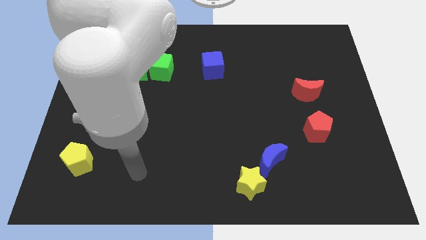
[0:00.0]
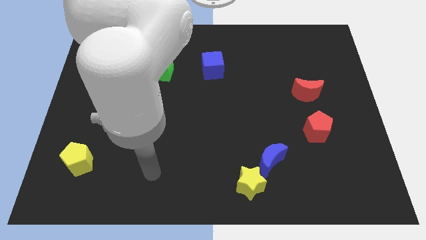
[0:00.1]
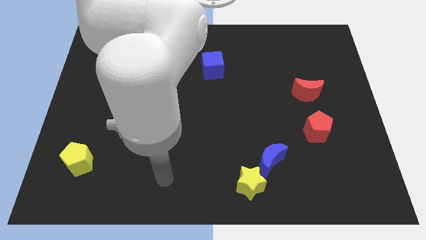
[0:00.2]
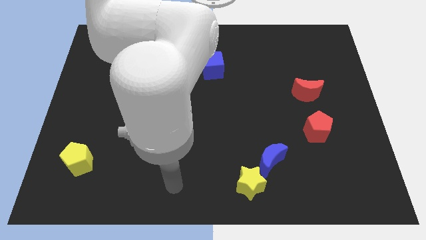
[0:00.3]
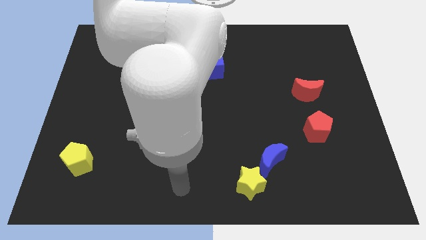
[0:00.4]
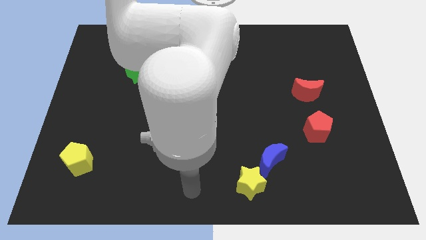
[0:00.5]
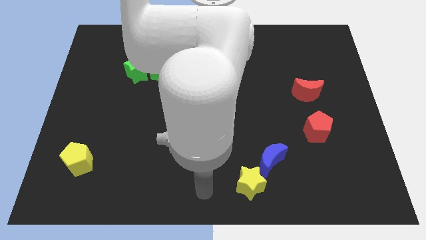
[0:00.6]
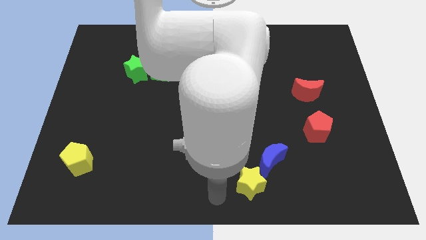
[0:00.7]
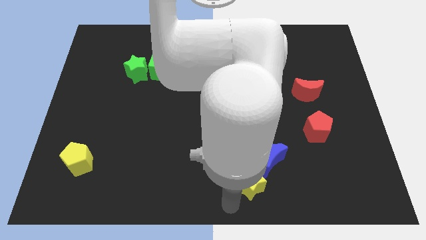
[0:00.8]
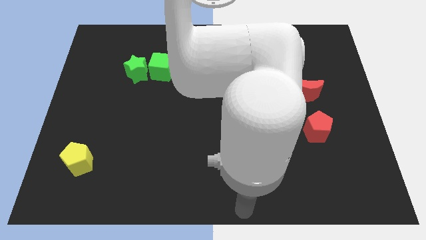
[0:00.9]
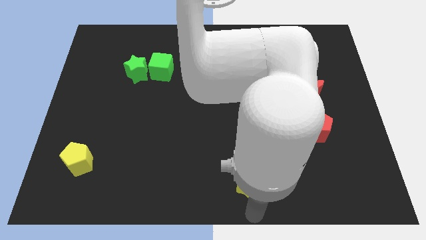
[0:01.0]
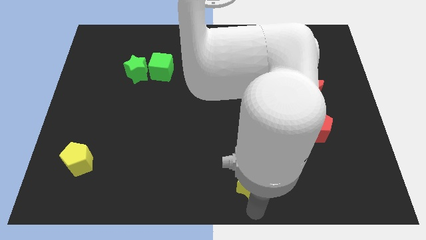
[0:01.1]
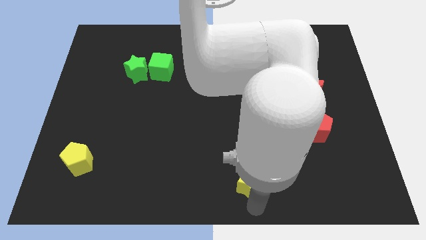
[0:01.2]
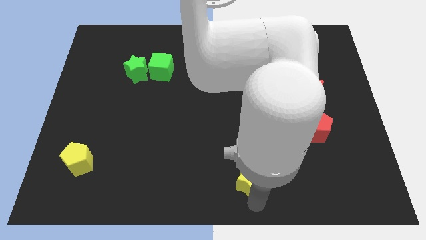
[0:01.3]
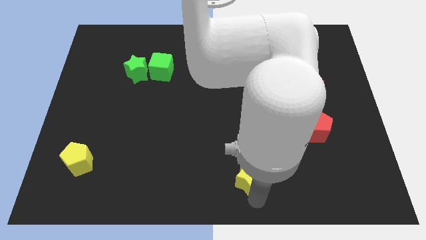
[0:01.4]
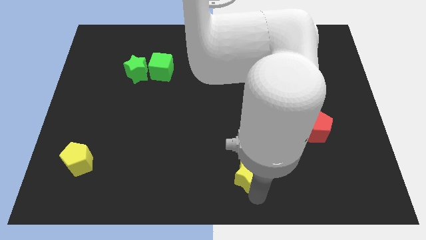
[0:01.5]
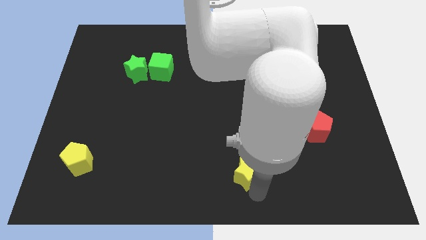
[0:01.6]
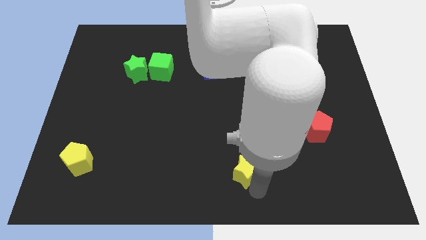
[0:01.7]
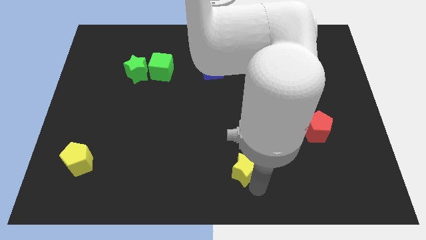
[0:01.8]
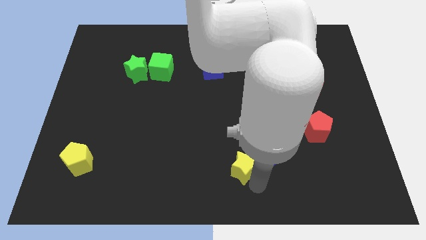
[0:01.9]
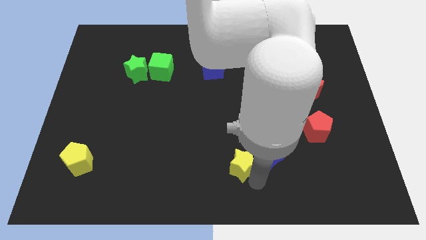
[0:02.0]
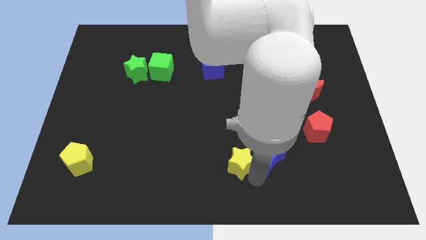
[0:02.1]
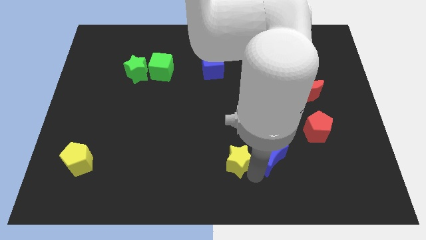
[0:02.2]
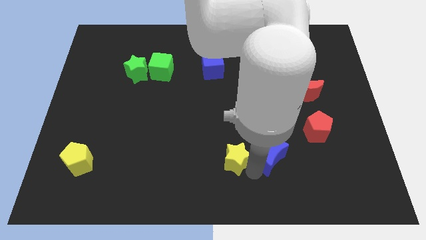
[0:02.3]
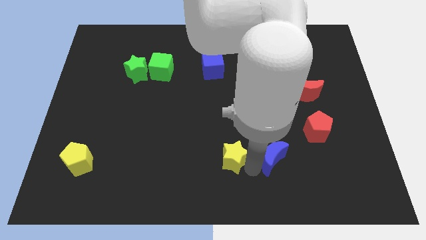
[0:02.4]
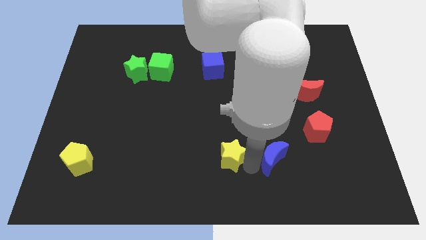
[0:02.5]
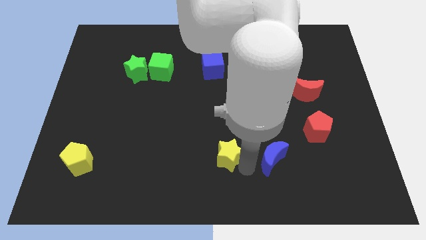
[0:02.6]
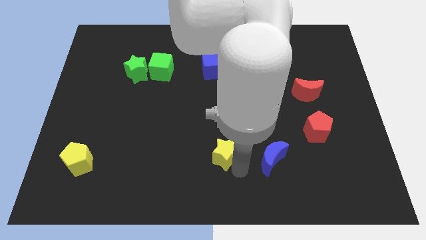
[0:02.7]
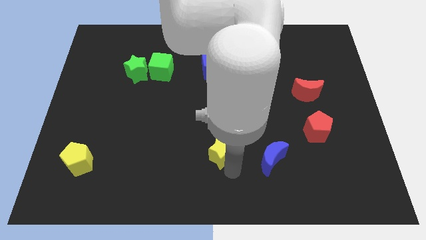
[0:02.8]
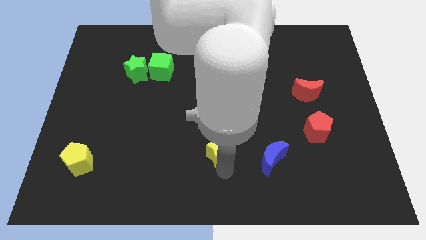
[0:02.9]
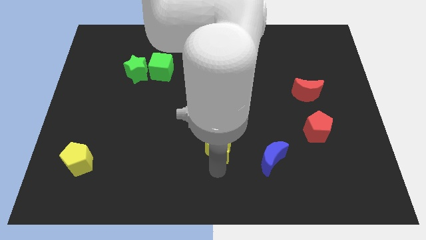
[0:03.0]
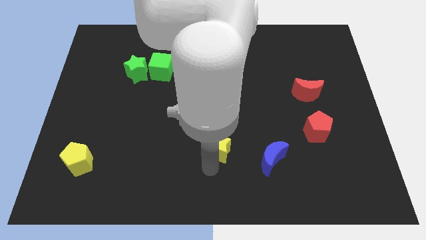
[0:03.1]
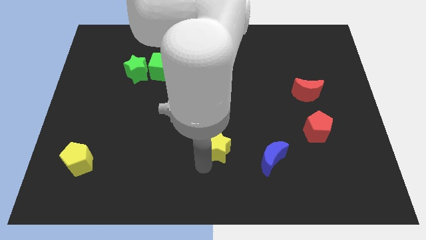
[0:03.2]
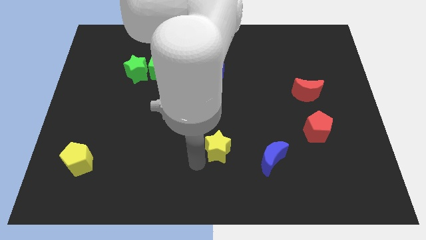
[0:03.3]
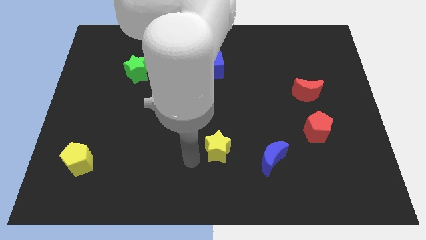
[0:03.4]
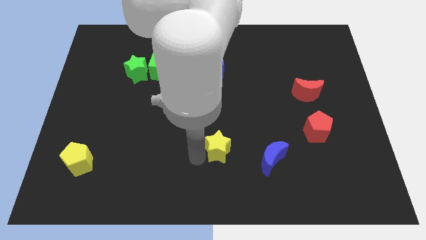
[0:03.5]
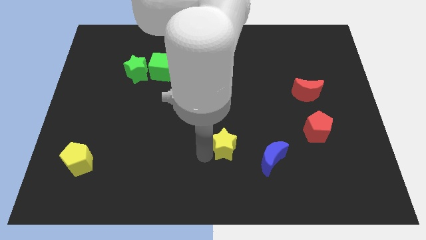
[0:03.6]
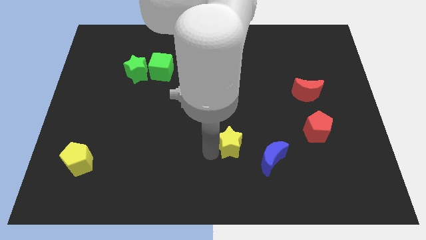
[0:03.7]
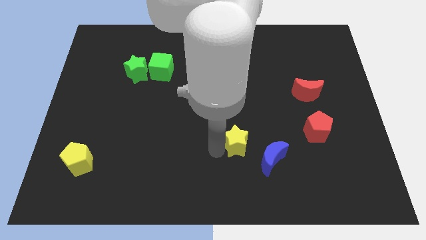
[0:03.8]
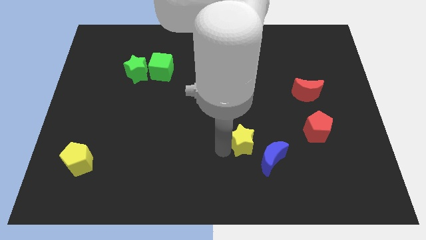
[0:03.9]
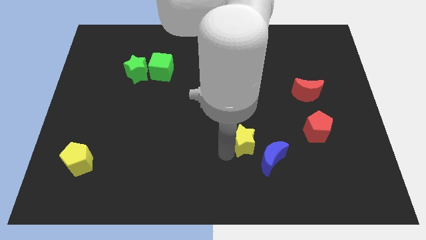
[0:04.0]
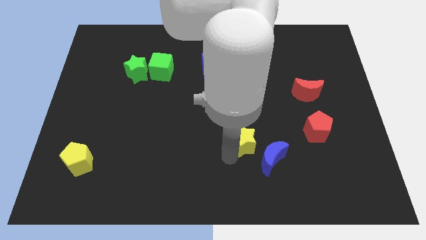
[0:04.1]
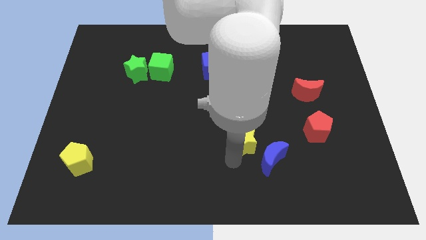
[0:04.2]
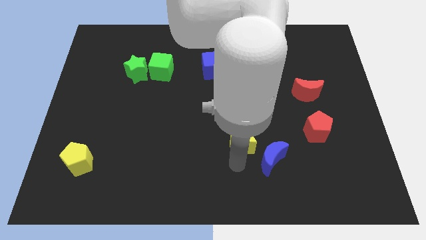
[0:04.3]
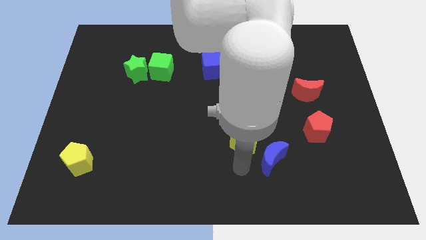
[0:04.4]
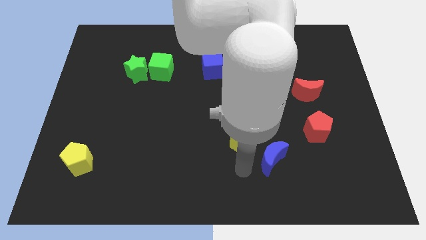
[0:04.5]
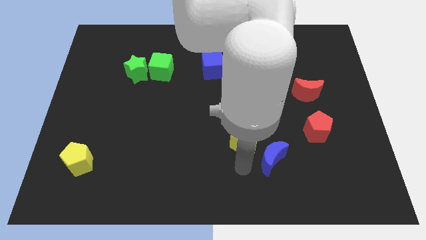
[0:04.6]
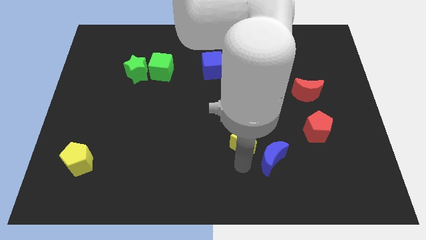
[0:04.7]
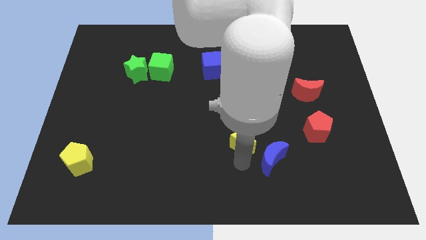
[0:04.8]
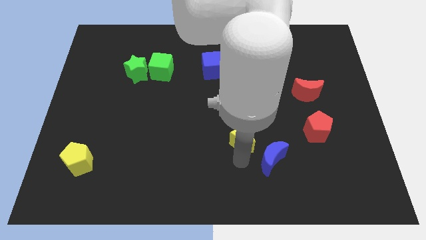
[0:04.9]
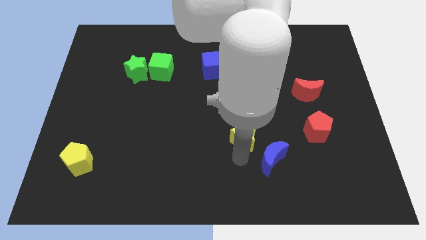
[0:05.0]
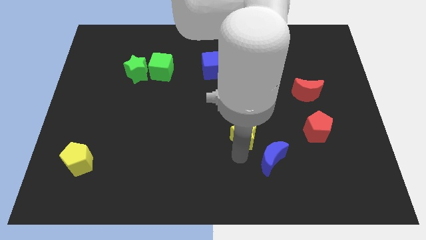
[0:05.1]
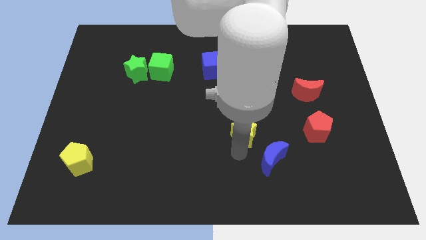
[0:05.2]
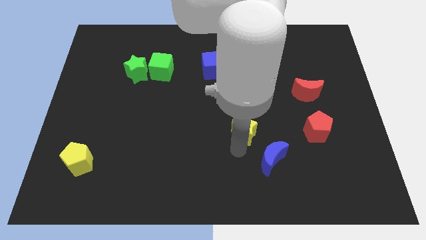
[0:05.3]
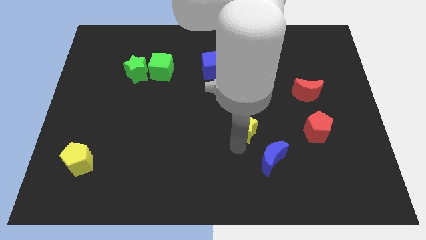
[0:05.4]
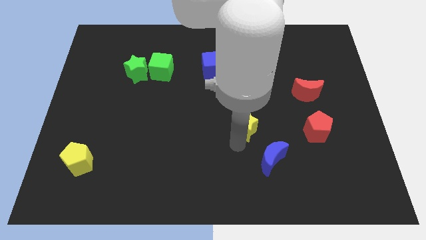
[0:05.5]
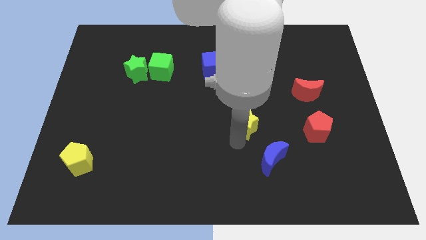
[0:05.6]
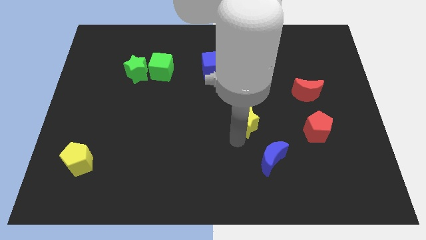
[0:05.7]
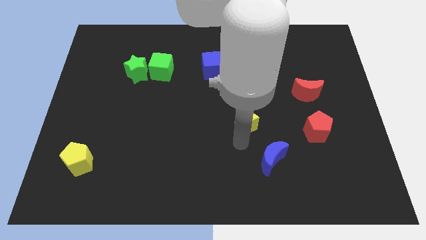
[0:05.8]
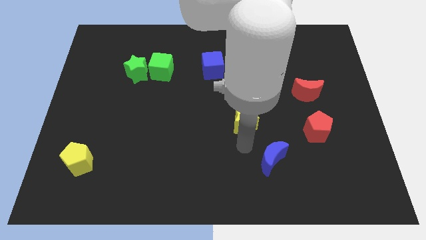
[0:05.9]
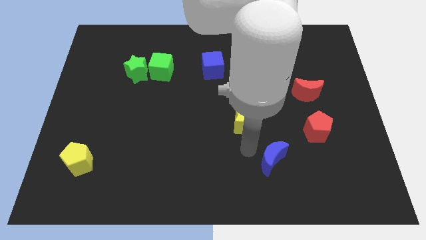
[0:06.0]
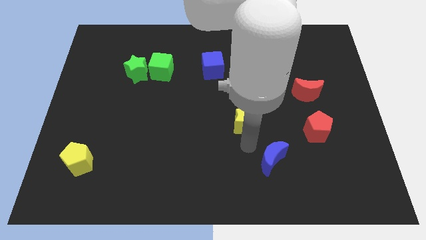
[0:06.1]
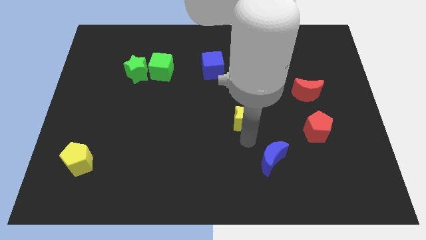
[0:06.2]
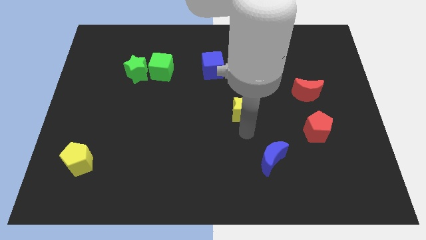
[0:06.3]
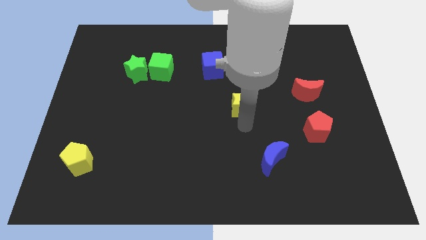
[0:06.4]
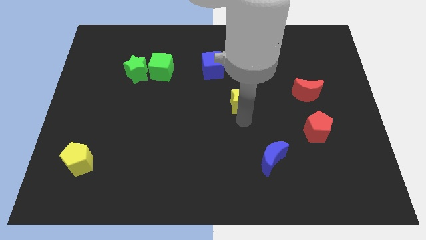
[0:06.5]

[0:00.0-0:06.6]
move the yellow star up

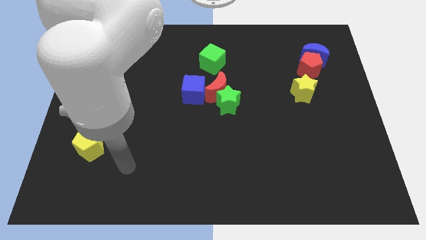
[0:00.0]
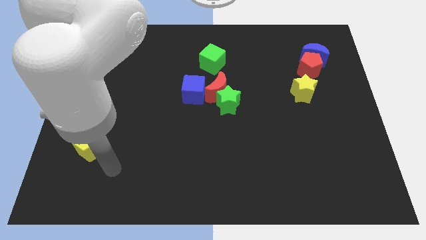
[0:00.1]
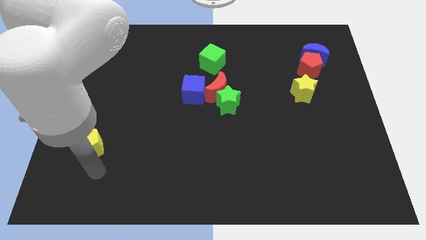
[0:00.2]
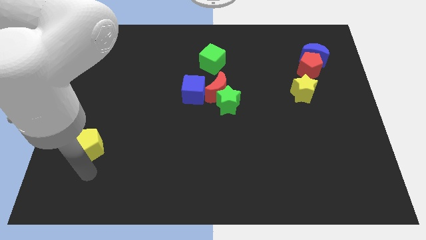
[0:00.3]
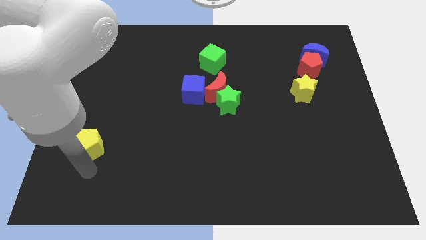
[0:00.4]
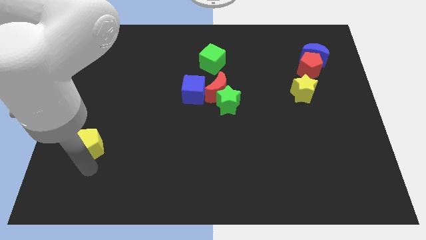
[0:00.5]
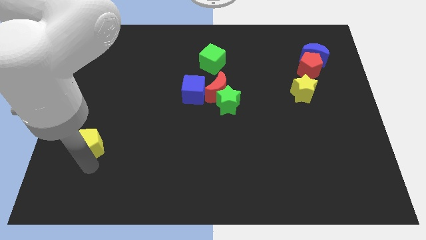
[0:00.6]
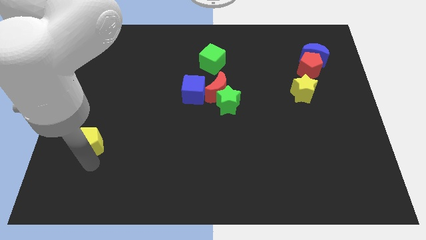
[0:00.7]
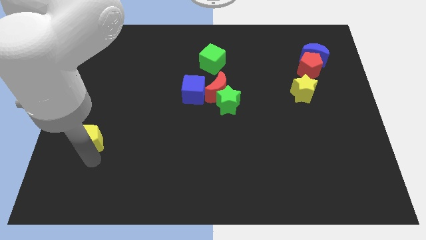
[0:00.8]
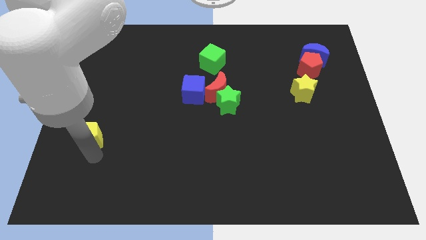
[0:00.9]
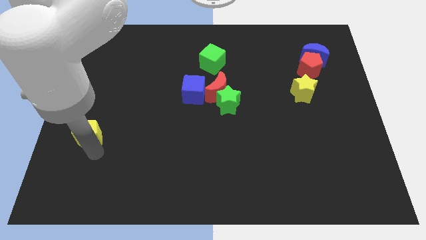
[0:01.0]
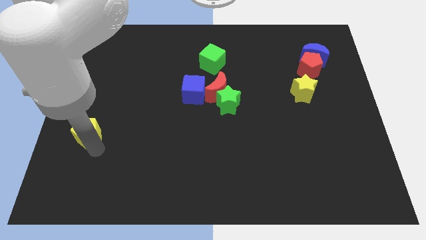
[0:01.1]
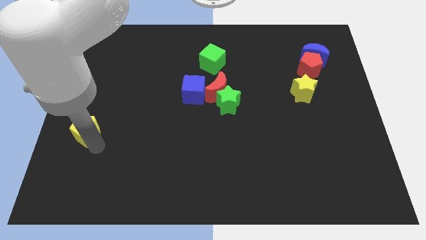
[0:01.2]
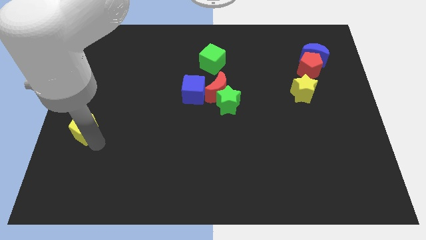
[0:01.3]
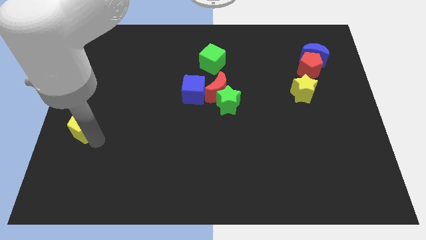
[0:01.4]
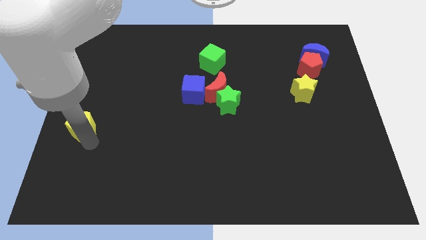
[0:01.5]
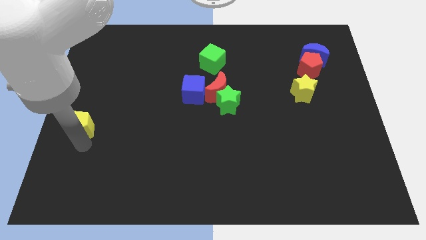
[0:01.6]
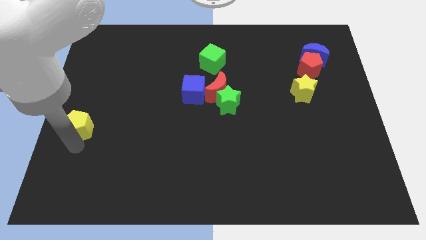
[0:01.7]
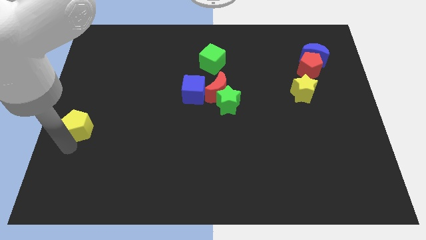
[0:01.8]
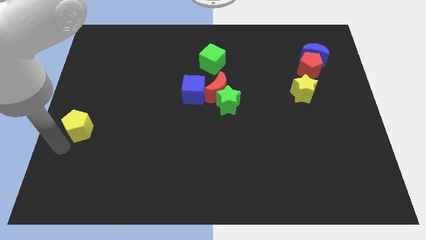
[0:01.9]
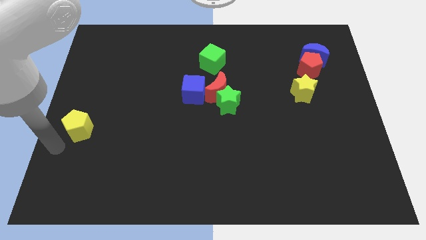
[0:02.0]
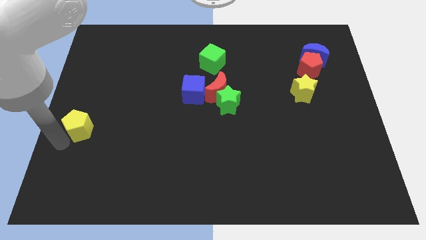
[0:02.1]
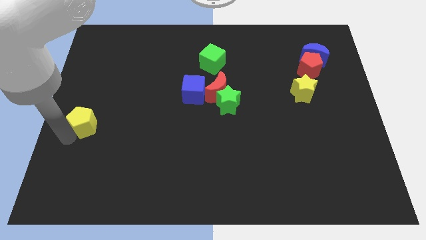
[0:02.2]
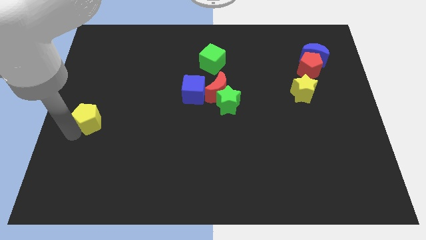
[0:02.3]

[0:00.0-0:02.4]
push the yellow pentagon a little upwards
